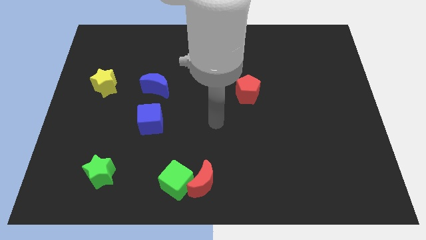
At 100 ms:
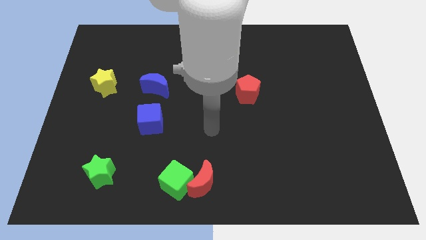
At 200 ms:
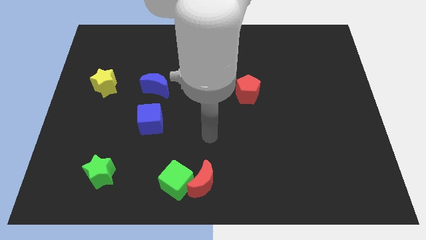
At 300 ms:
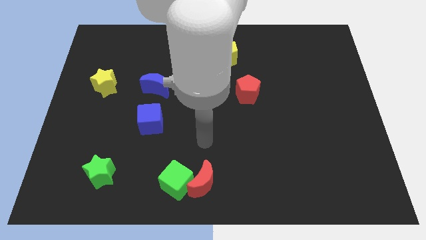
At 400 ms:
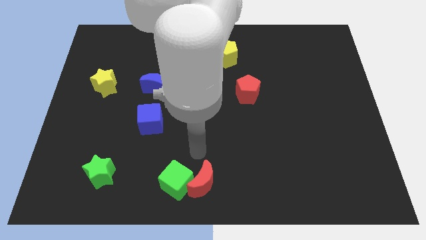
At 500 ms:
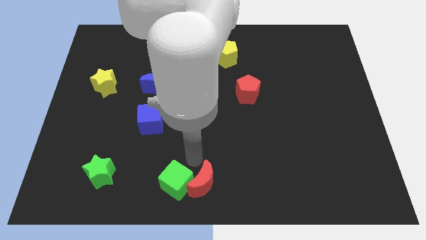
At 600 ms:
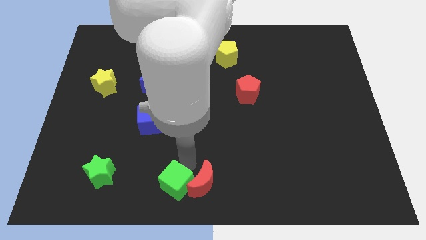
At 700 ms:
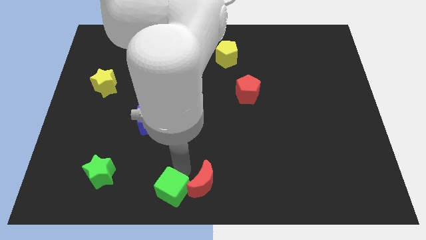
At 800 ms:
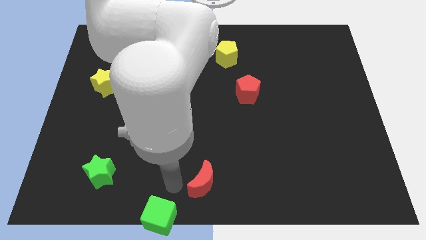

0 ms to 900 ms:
move the red moon away from the green cube

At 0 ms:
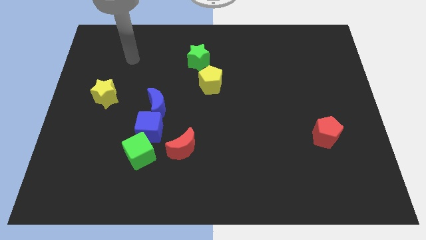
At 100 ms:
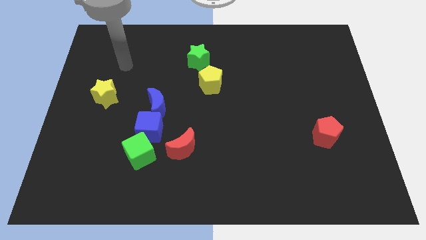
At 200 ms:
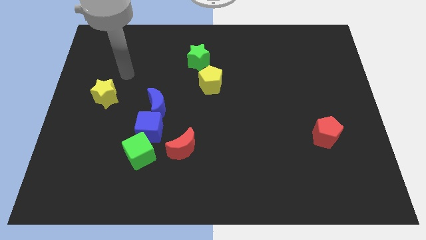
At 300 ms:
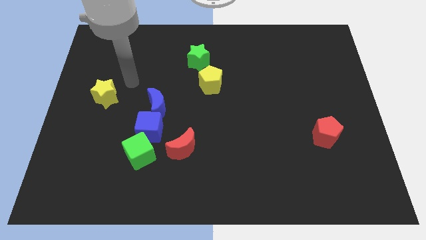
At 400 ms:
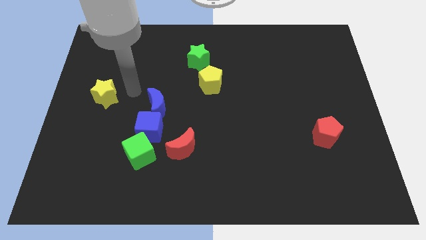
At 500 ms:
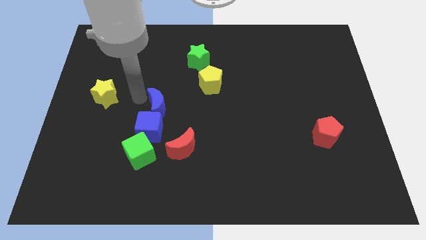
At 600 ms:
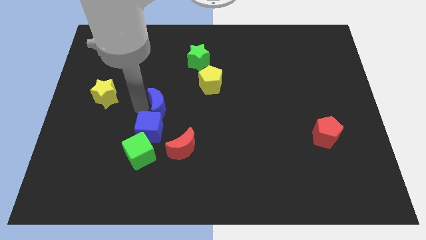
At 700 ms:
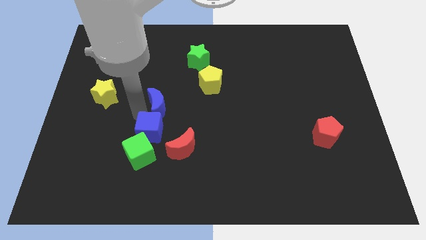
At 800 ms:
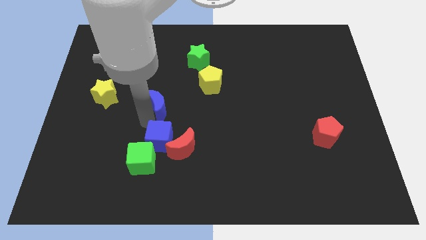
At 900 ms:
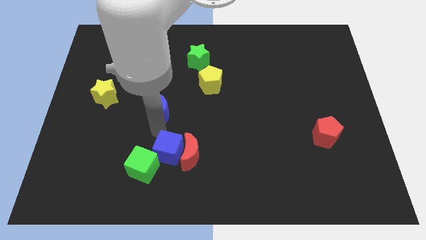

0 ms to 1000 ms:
move the blue moon away from the blue cube

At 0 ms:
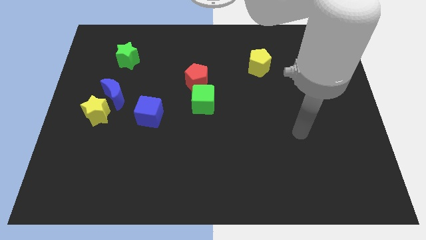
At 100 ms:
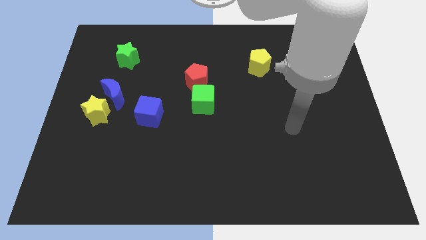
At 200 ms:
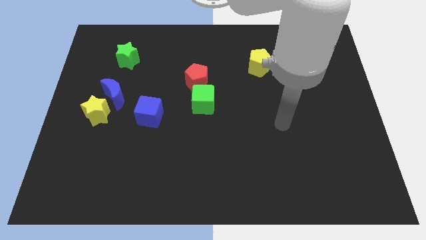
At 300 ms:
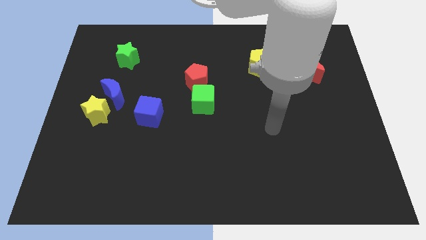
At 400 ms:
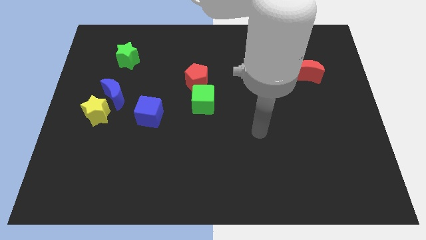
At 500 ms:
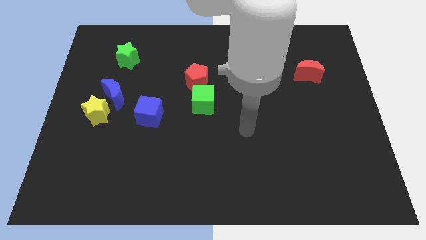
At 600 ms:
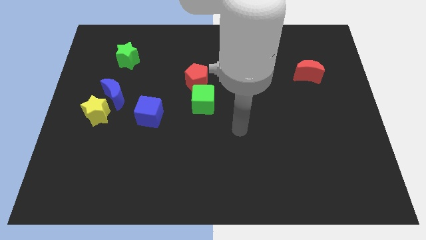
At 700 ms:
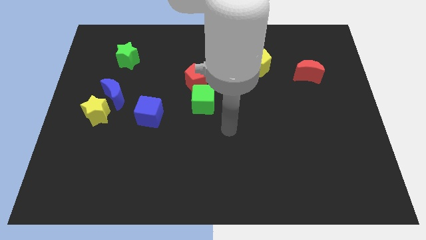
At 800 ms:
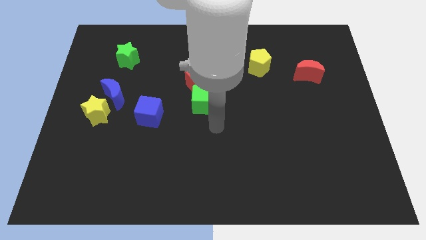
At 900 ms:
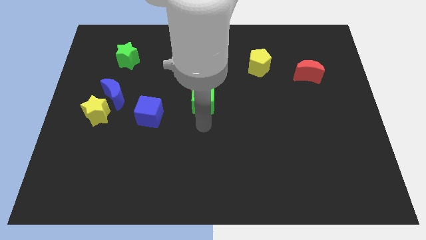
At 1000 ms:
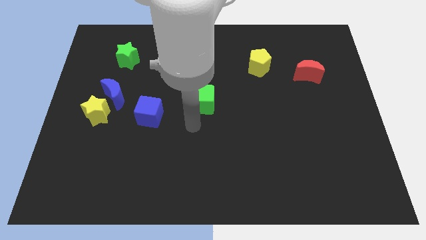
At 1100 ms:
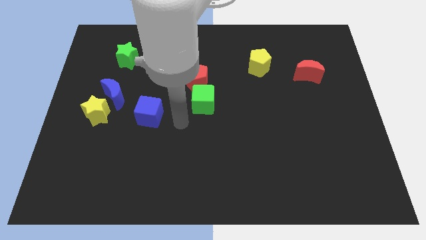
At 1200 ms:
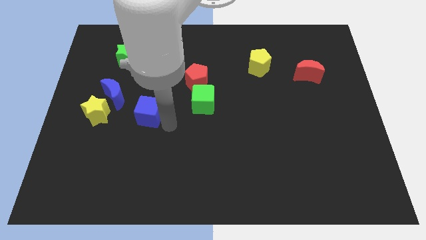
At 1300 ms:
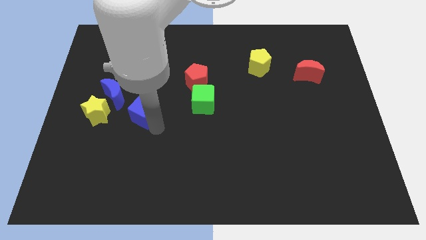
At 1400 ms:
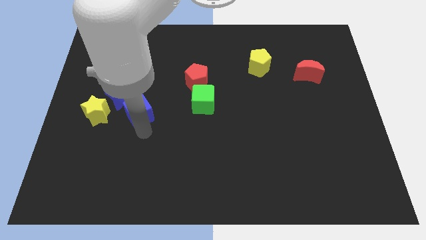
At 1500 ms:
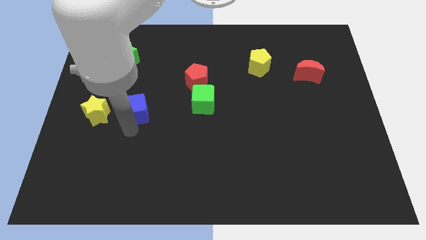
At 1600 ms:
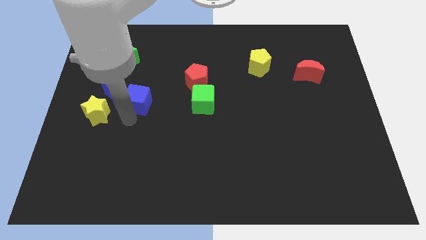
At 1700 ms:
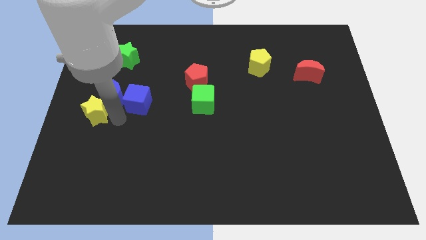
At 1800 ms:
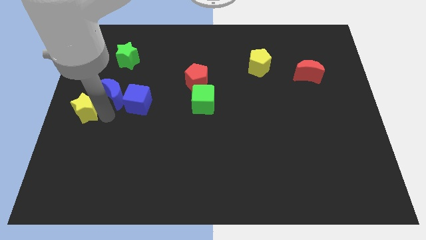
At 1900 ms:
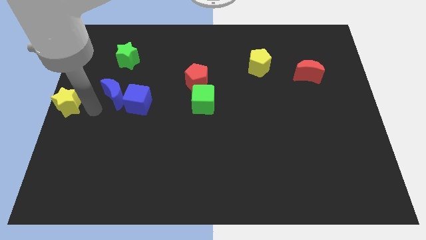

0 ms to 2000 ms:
move the blue moon away from the yellow star

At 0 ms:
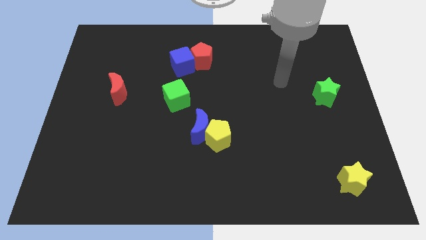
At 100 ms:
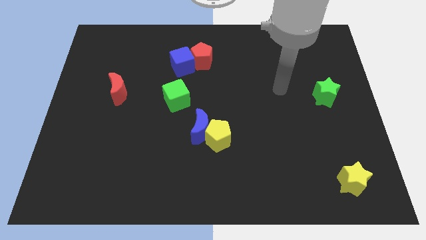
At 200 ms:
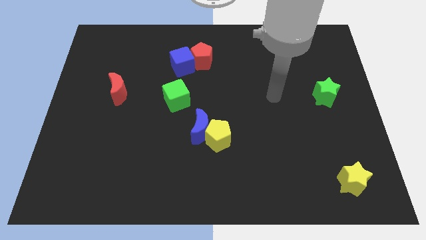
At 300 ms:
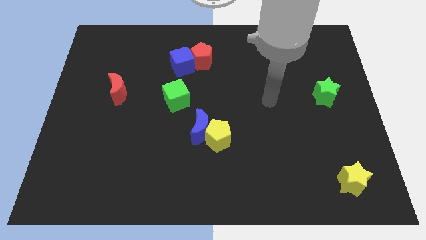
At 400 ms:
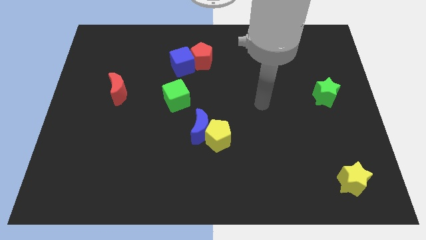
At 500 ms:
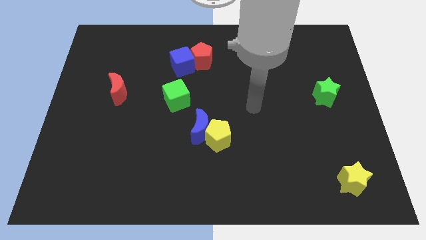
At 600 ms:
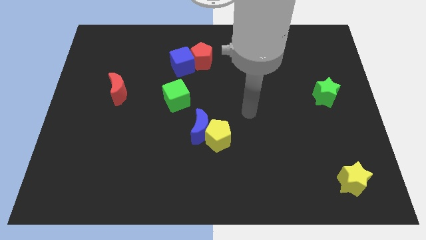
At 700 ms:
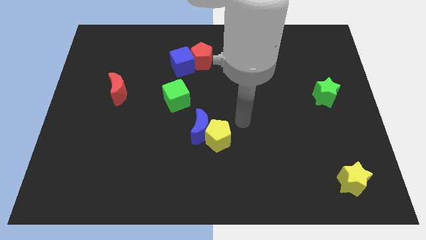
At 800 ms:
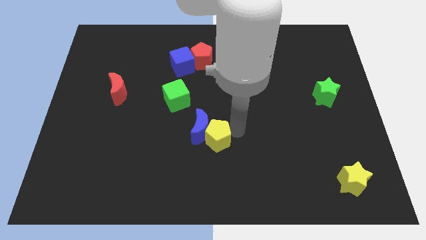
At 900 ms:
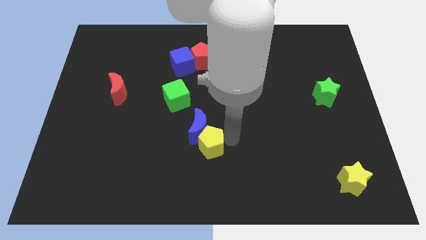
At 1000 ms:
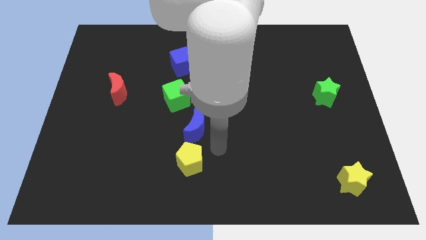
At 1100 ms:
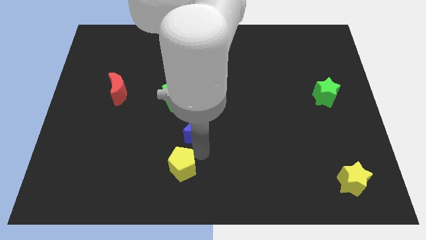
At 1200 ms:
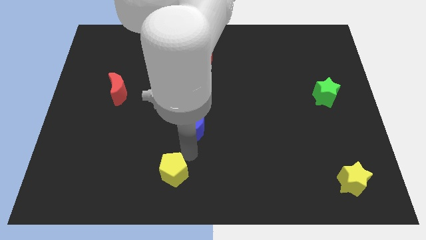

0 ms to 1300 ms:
move the blue moon away from the yellow pentagon

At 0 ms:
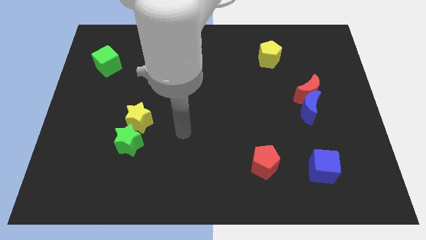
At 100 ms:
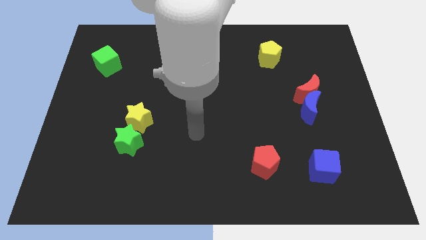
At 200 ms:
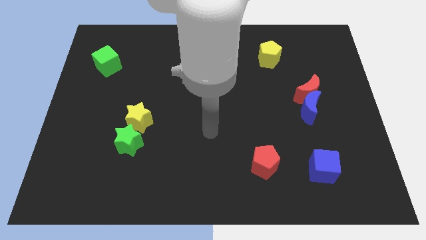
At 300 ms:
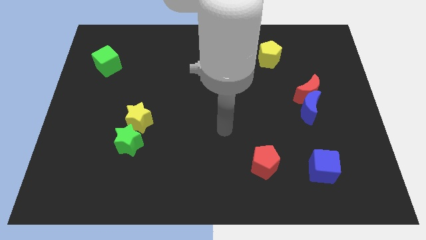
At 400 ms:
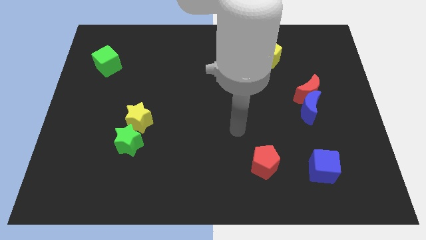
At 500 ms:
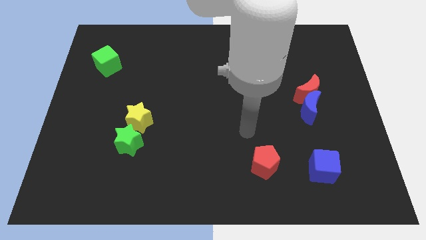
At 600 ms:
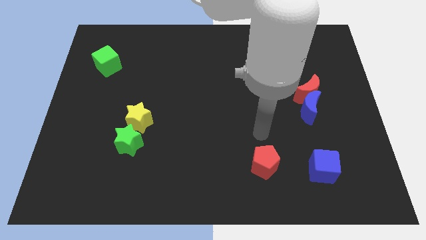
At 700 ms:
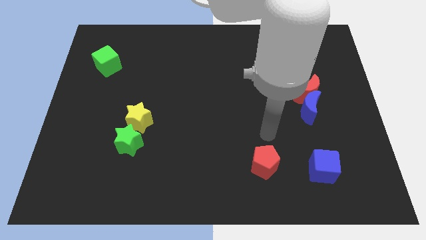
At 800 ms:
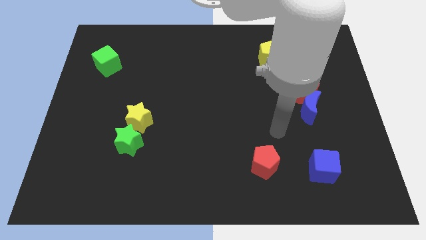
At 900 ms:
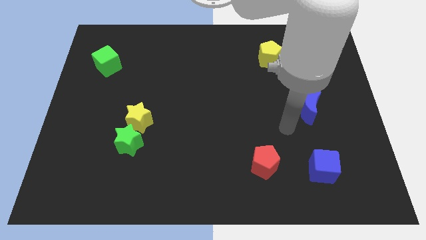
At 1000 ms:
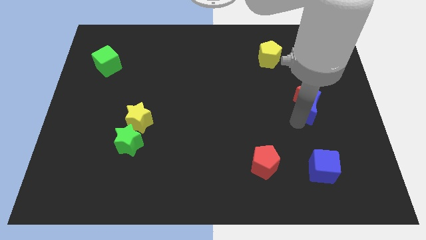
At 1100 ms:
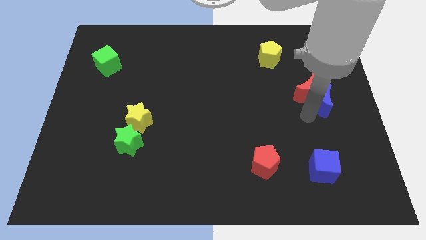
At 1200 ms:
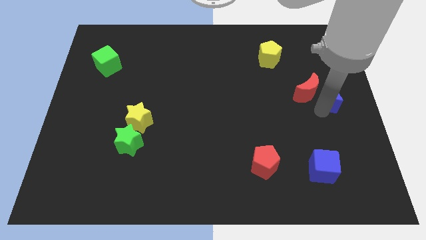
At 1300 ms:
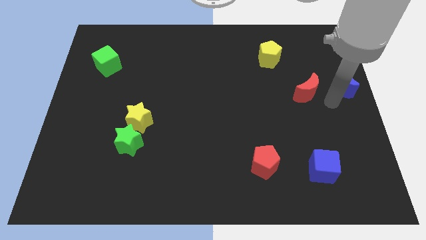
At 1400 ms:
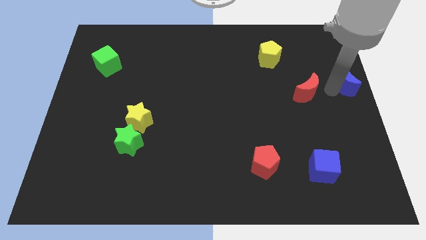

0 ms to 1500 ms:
separate the red moon from the blue moon

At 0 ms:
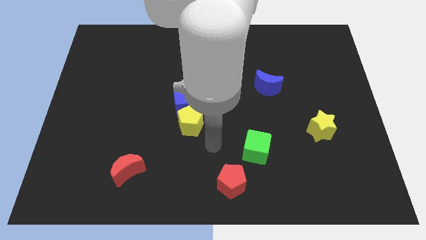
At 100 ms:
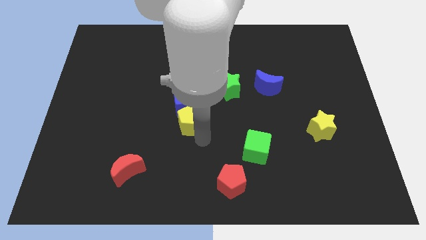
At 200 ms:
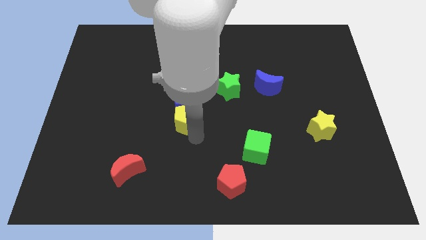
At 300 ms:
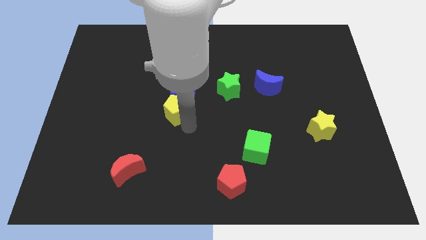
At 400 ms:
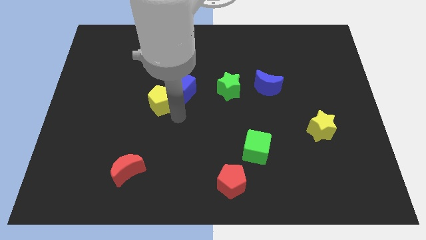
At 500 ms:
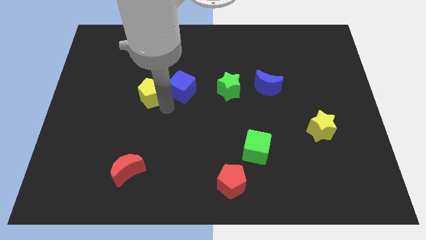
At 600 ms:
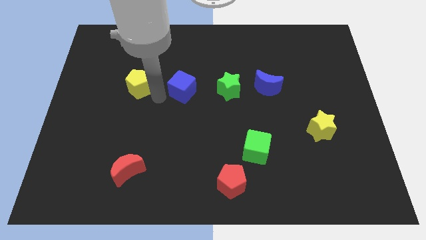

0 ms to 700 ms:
separate the blue cube from the yellow pentagon

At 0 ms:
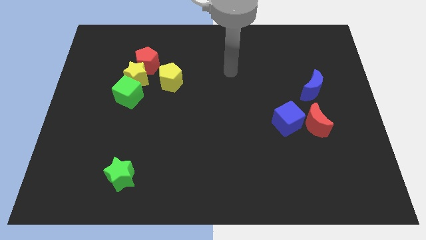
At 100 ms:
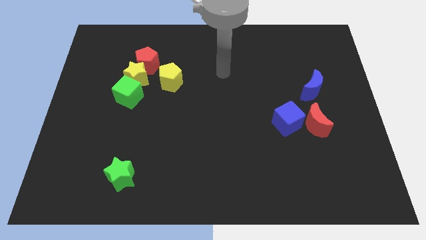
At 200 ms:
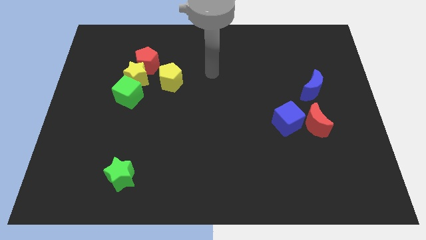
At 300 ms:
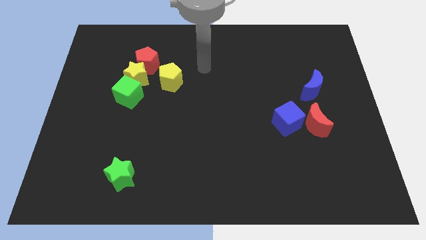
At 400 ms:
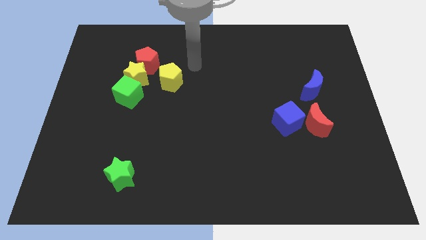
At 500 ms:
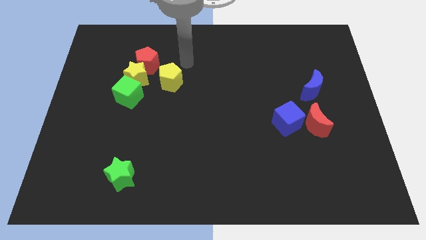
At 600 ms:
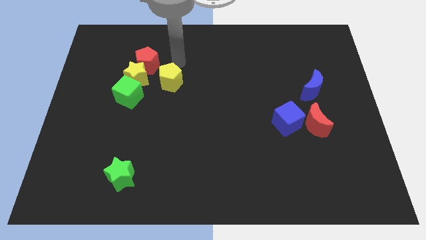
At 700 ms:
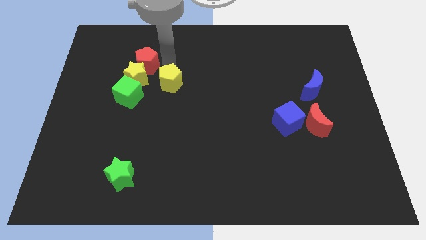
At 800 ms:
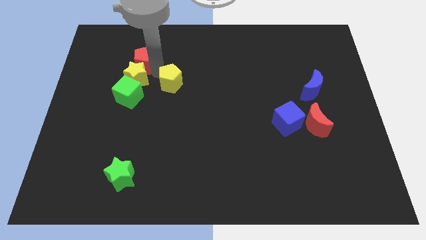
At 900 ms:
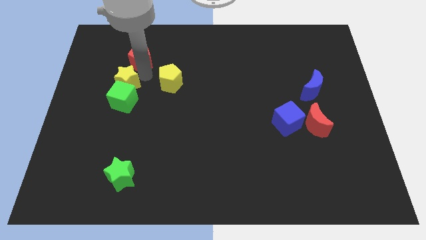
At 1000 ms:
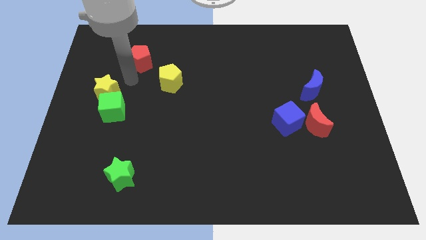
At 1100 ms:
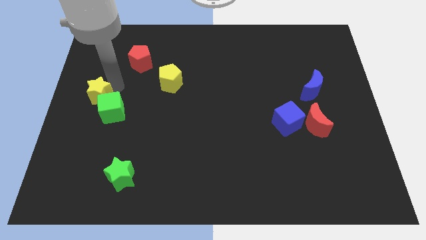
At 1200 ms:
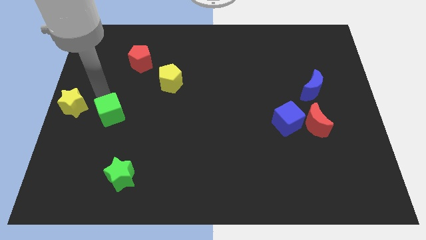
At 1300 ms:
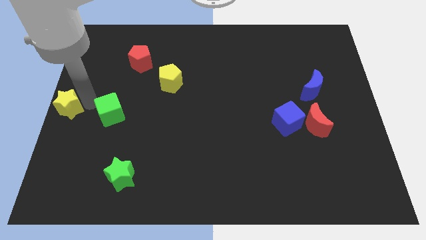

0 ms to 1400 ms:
separate the green cube from the yellow star

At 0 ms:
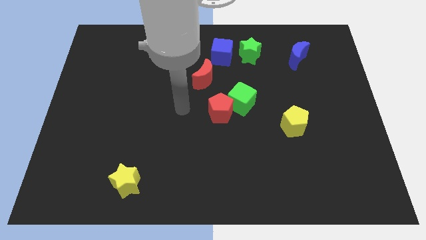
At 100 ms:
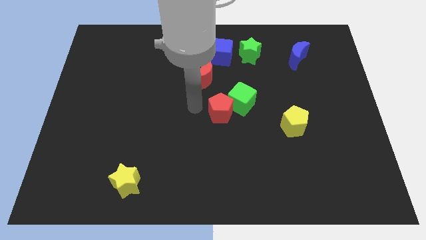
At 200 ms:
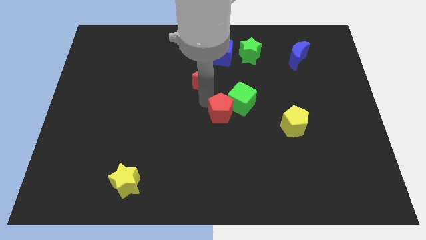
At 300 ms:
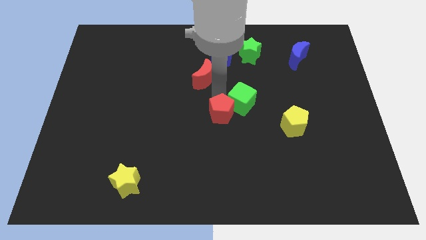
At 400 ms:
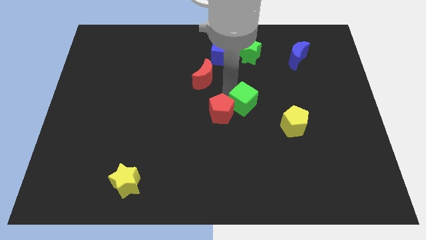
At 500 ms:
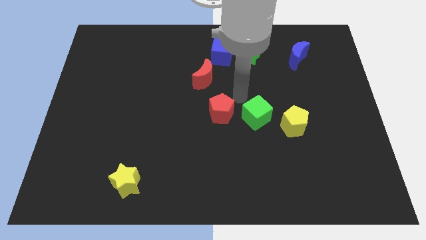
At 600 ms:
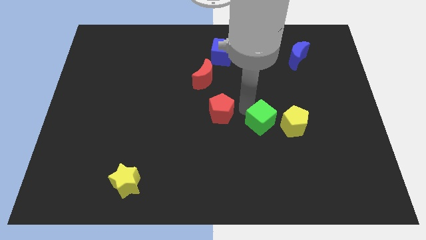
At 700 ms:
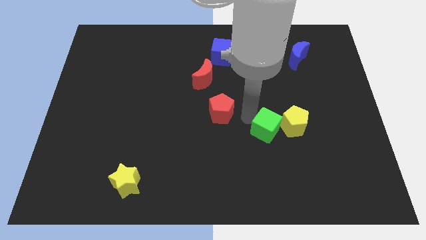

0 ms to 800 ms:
separate the red pentagon from the green cube
